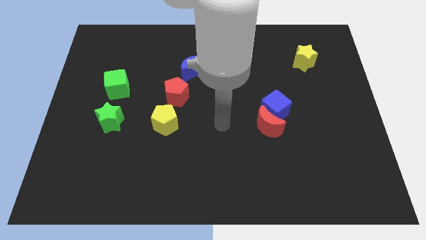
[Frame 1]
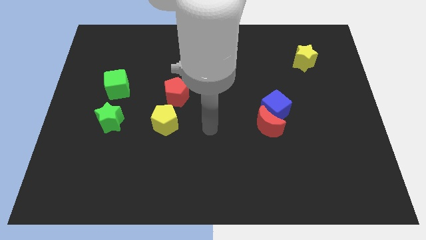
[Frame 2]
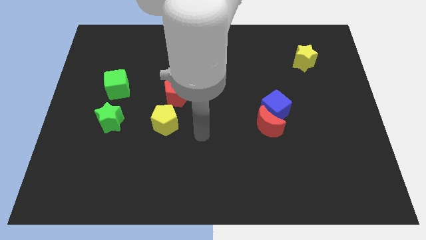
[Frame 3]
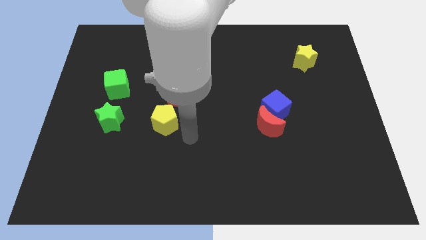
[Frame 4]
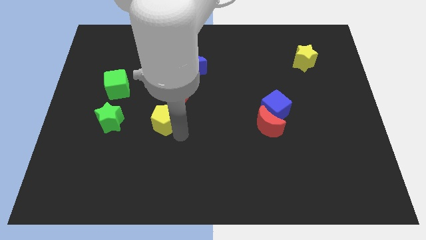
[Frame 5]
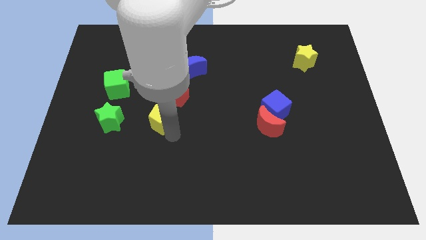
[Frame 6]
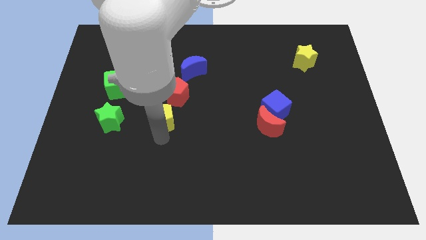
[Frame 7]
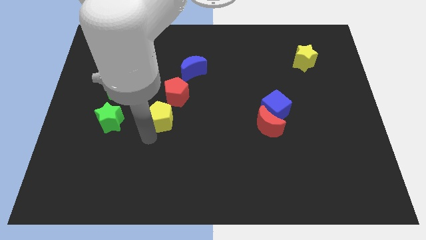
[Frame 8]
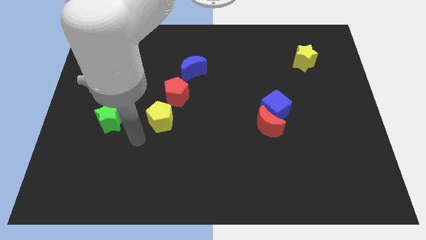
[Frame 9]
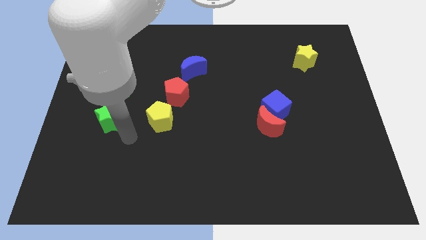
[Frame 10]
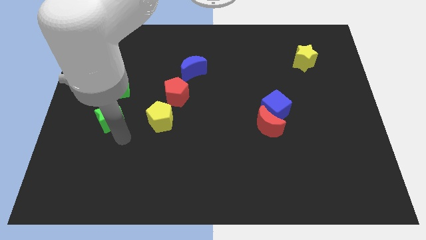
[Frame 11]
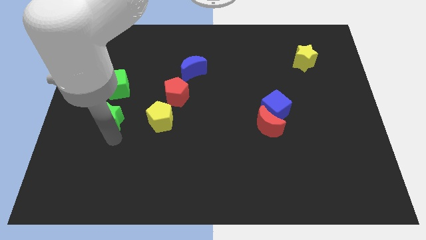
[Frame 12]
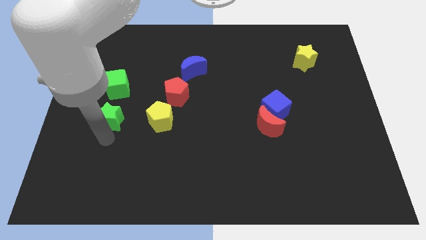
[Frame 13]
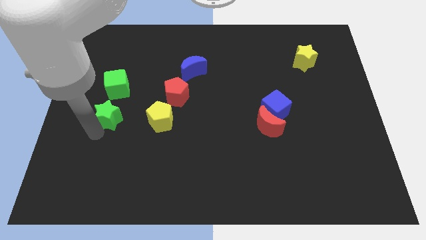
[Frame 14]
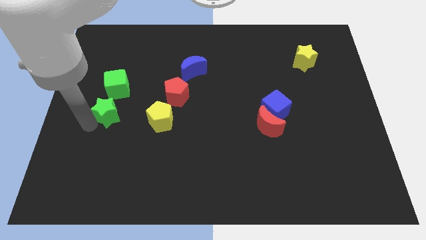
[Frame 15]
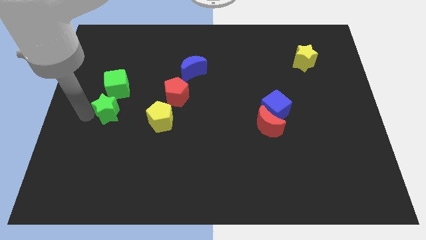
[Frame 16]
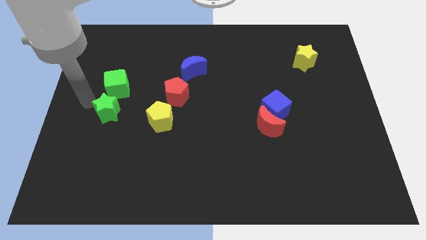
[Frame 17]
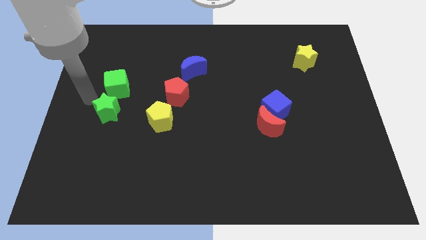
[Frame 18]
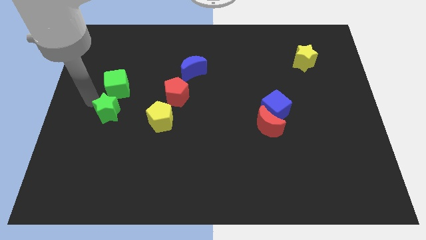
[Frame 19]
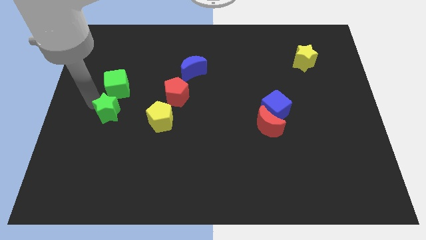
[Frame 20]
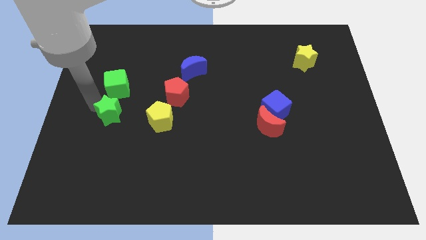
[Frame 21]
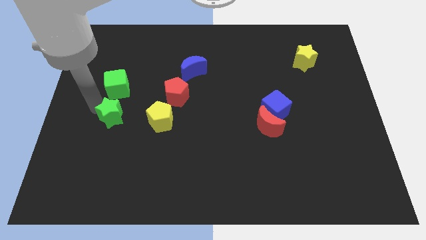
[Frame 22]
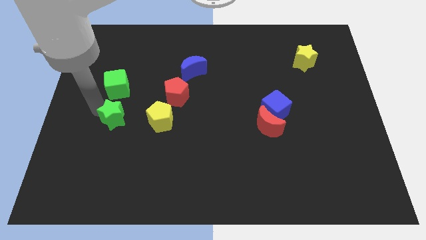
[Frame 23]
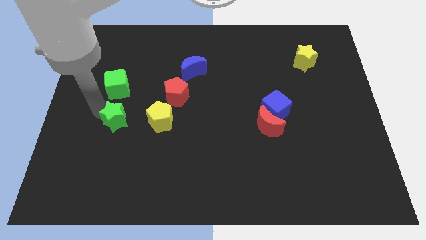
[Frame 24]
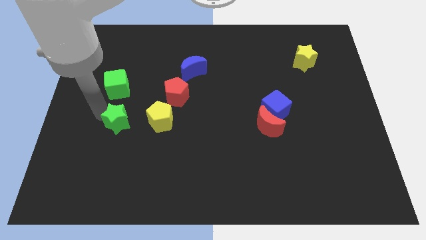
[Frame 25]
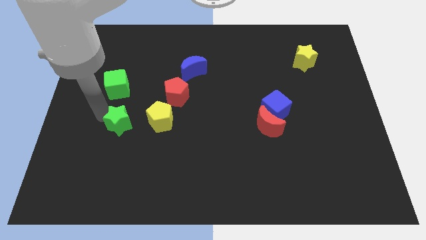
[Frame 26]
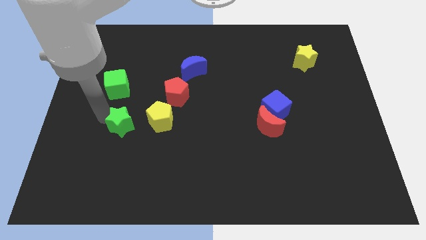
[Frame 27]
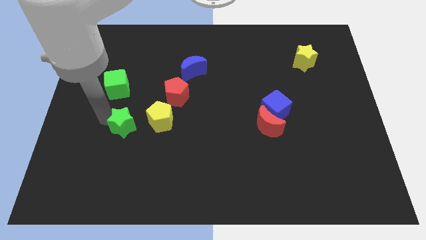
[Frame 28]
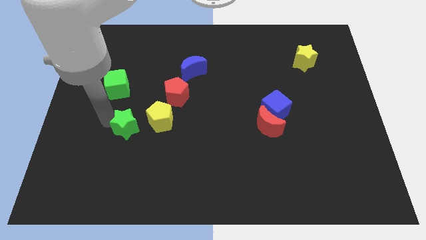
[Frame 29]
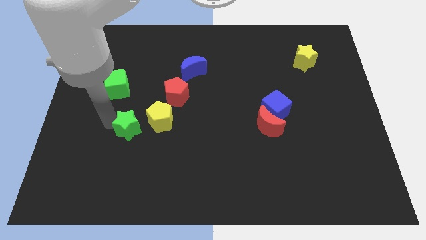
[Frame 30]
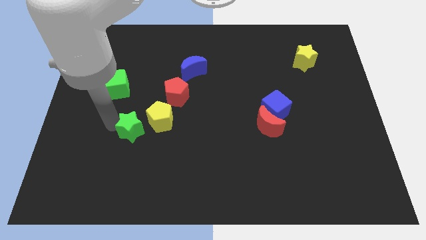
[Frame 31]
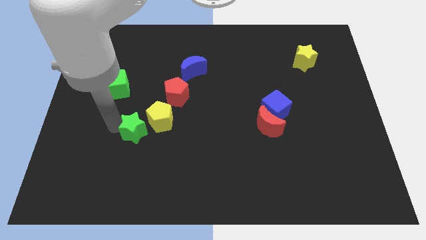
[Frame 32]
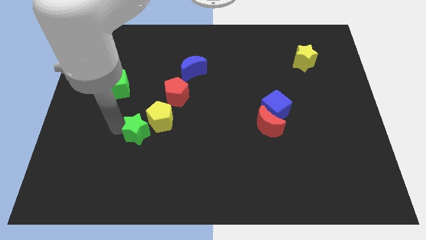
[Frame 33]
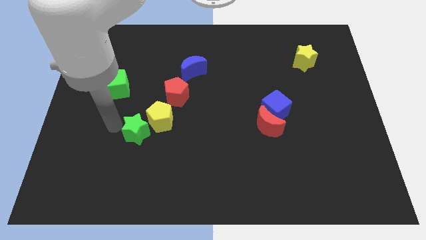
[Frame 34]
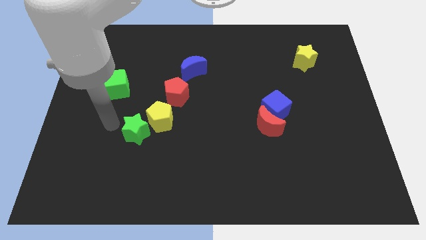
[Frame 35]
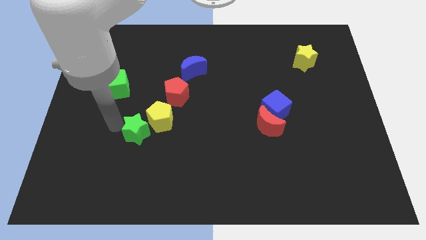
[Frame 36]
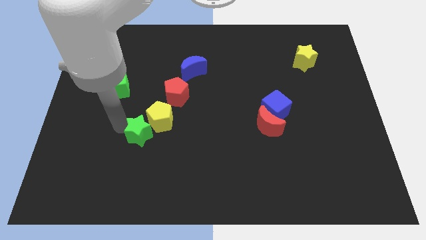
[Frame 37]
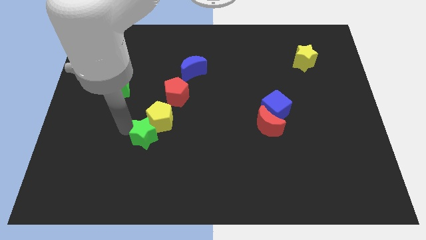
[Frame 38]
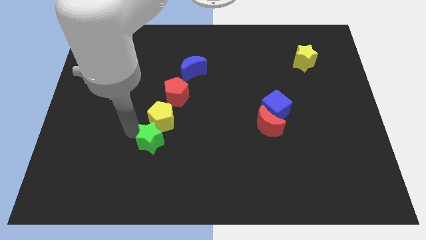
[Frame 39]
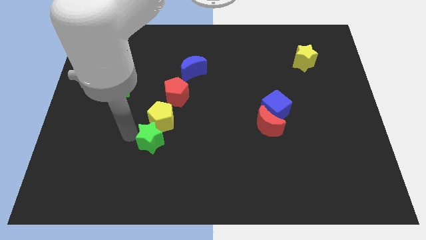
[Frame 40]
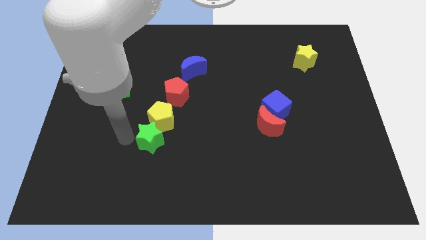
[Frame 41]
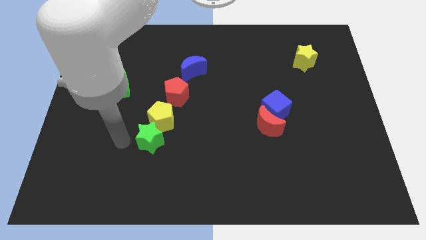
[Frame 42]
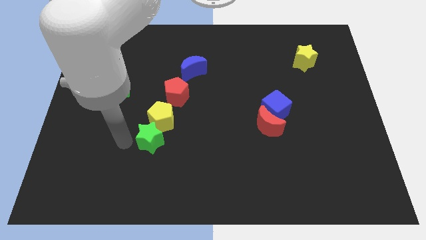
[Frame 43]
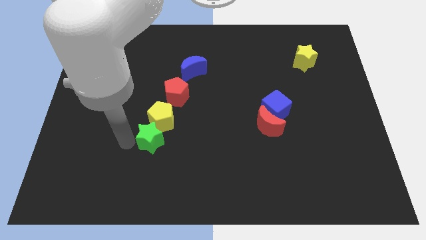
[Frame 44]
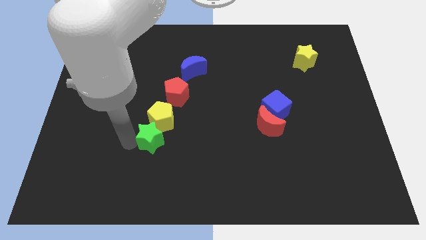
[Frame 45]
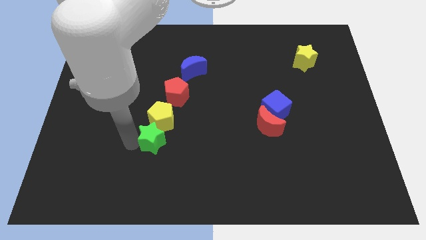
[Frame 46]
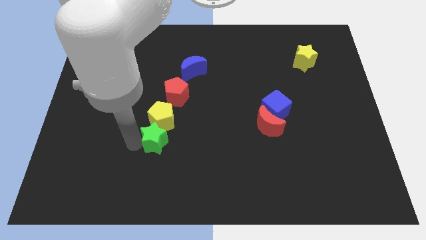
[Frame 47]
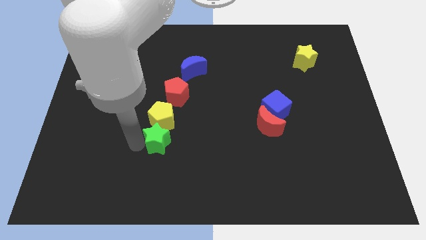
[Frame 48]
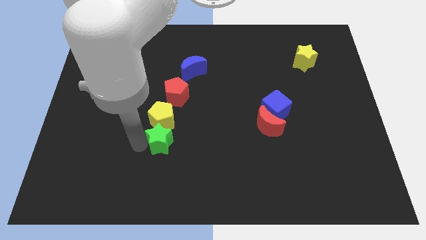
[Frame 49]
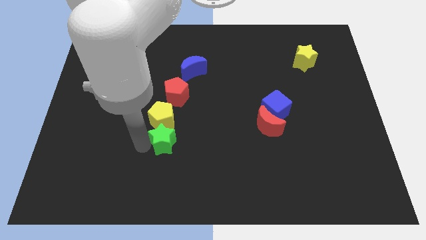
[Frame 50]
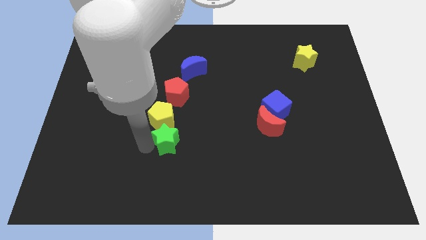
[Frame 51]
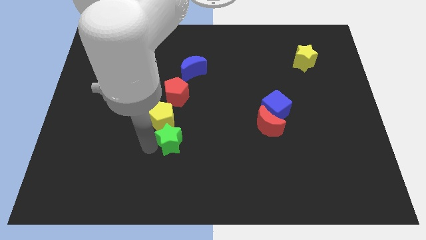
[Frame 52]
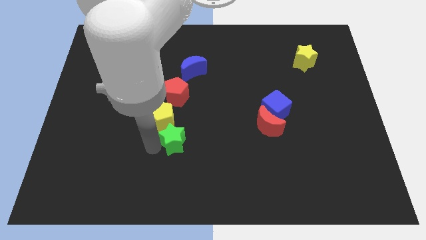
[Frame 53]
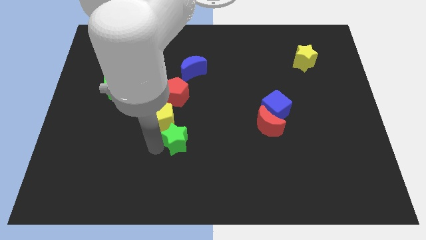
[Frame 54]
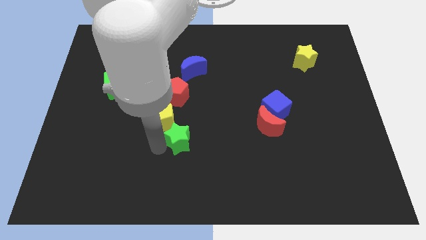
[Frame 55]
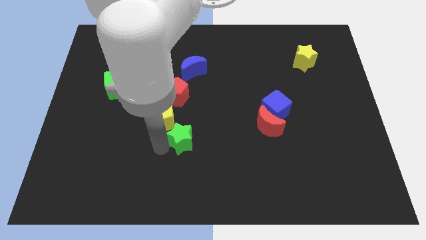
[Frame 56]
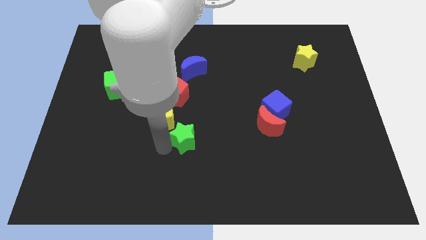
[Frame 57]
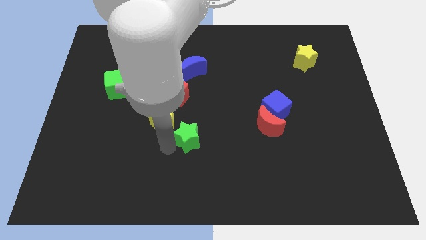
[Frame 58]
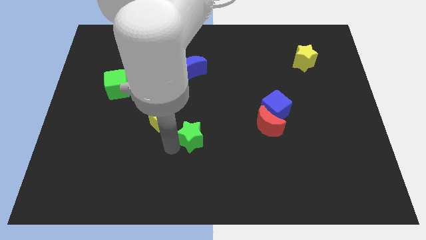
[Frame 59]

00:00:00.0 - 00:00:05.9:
put the green star just right of the yellow pentagon
